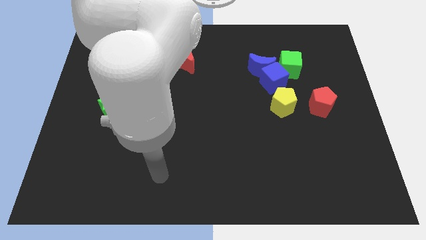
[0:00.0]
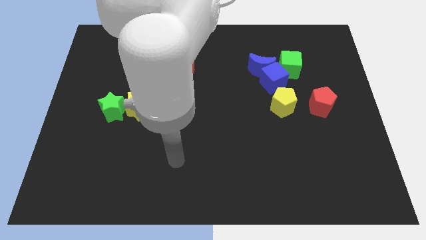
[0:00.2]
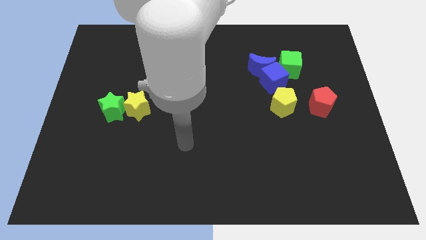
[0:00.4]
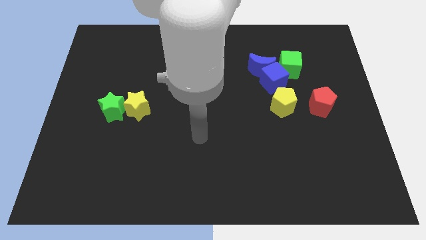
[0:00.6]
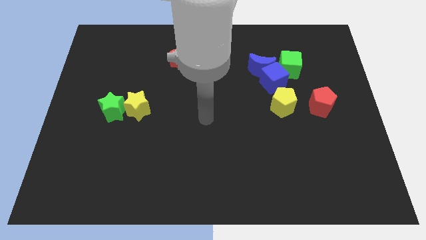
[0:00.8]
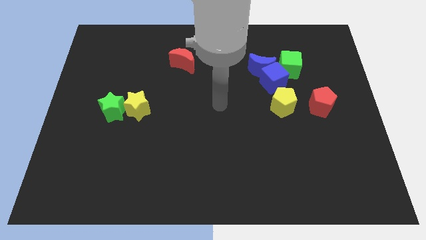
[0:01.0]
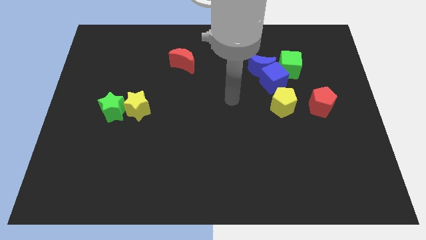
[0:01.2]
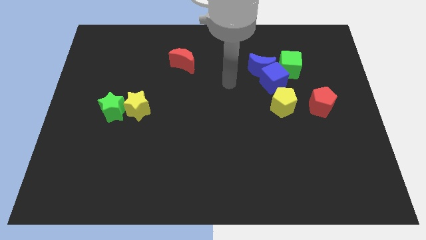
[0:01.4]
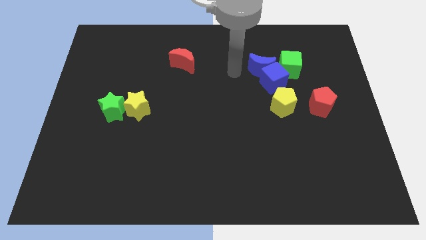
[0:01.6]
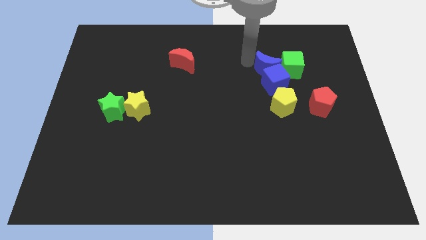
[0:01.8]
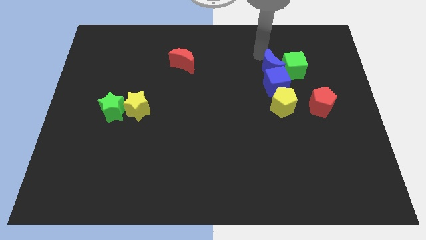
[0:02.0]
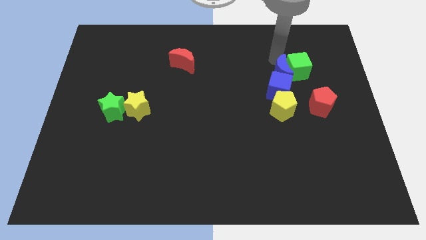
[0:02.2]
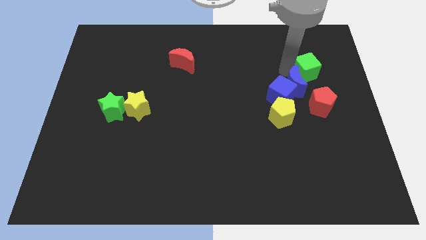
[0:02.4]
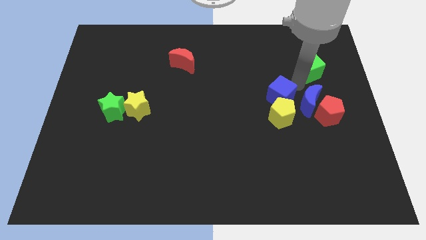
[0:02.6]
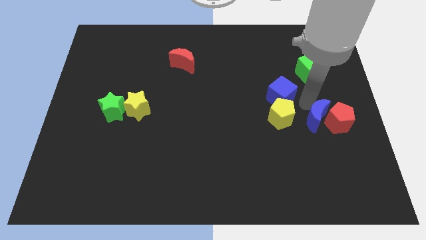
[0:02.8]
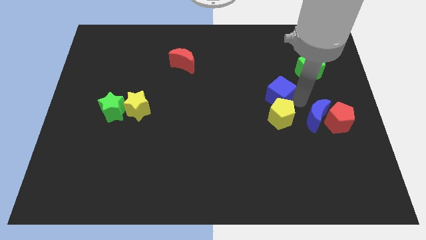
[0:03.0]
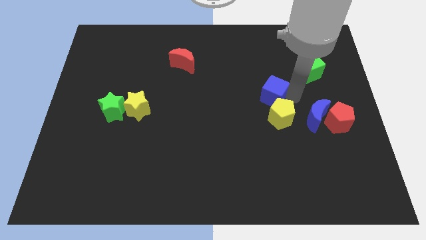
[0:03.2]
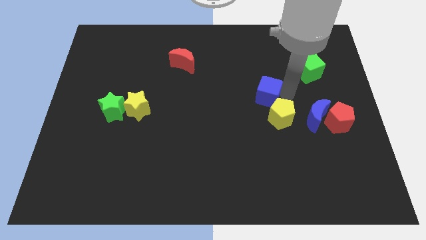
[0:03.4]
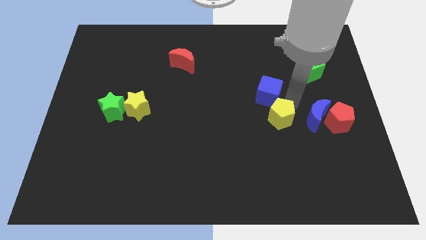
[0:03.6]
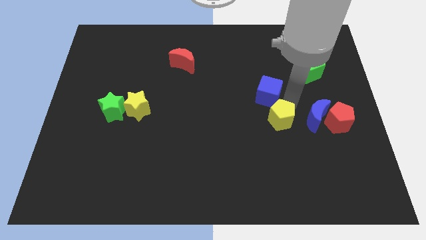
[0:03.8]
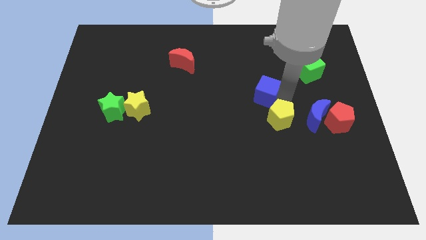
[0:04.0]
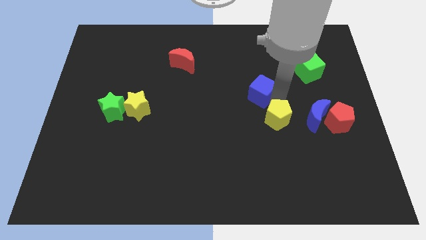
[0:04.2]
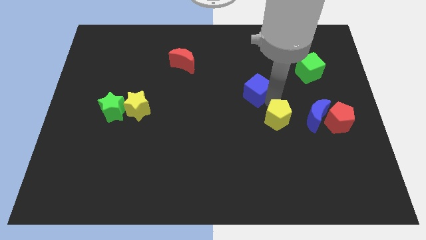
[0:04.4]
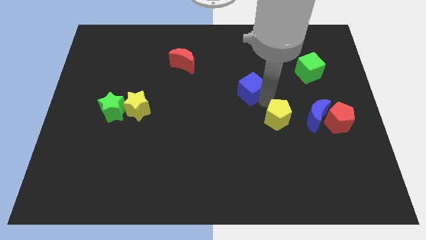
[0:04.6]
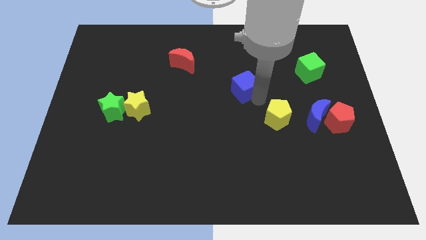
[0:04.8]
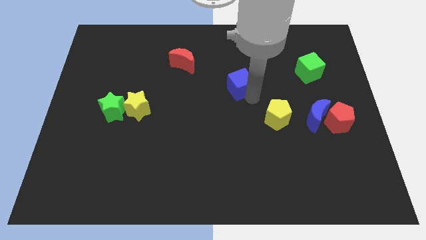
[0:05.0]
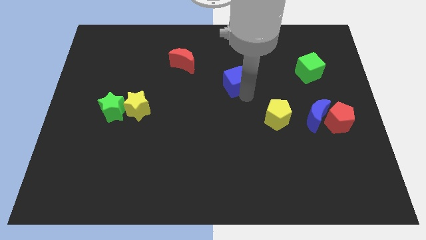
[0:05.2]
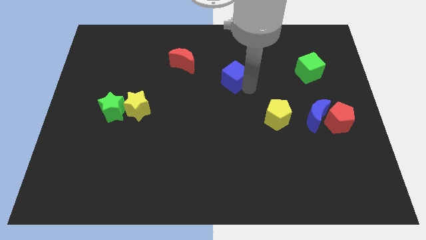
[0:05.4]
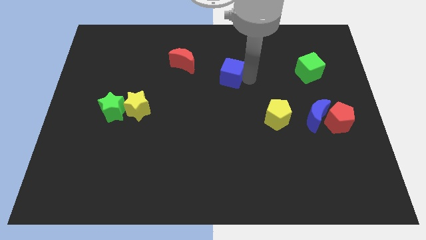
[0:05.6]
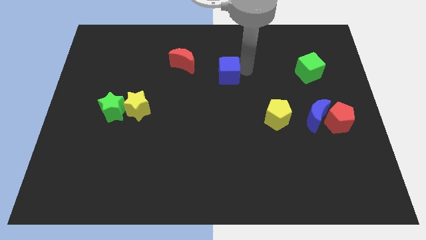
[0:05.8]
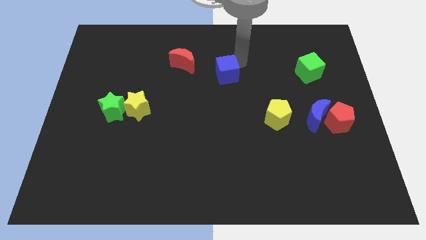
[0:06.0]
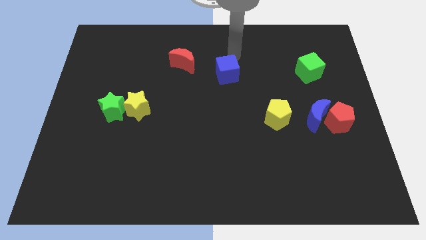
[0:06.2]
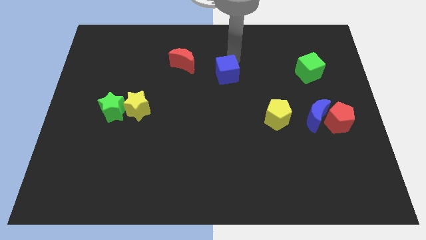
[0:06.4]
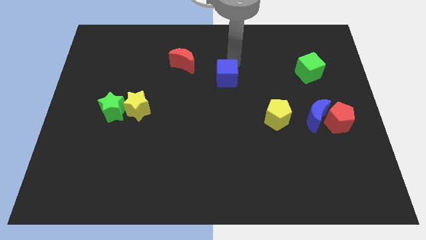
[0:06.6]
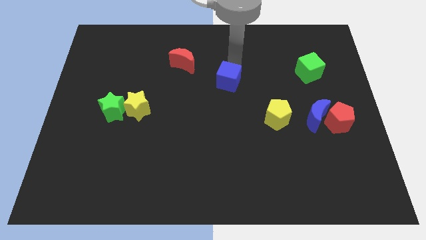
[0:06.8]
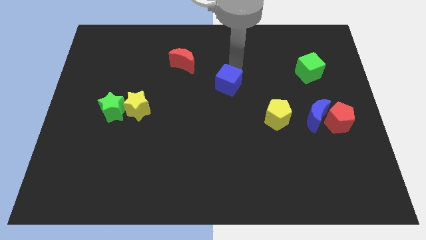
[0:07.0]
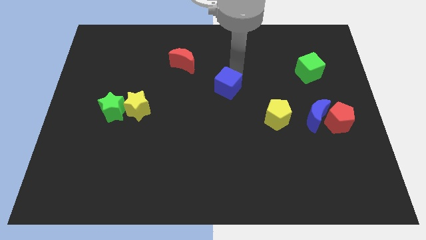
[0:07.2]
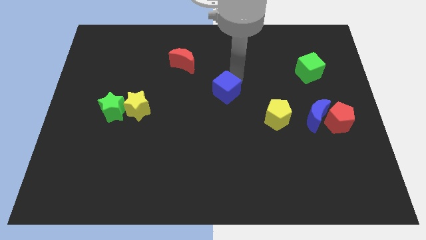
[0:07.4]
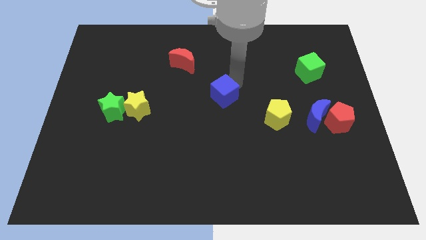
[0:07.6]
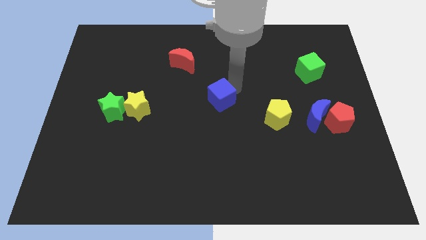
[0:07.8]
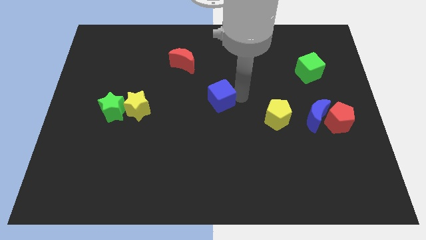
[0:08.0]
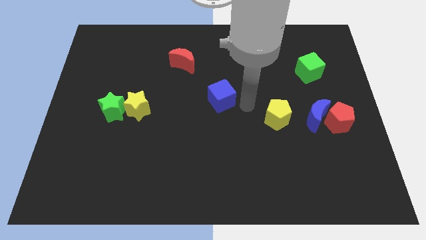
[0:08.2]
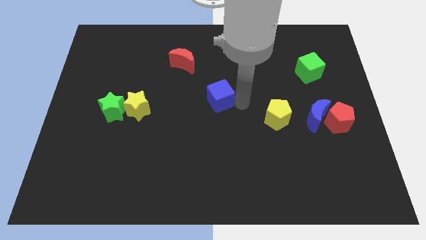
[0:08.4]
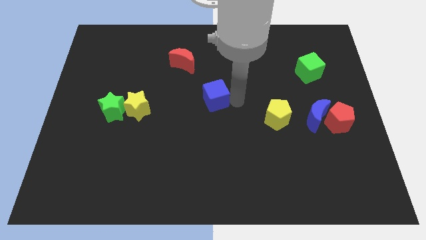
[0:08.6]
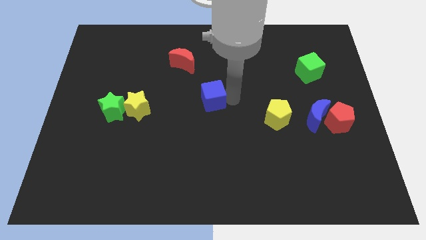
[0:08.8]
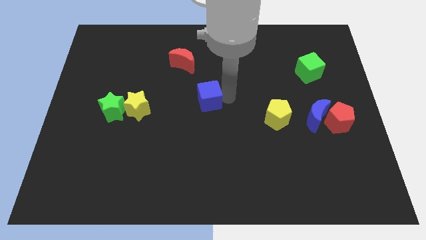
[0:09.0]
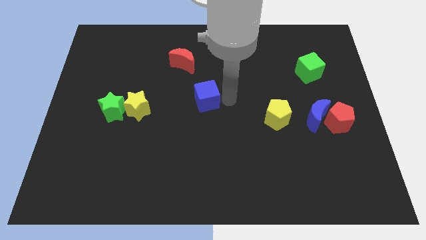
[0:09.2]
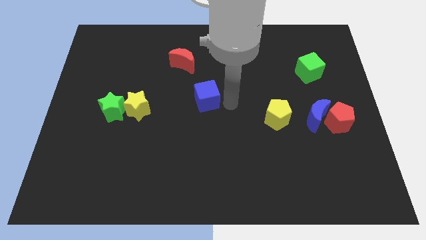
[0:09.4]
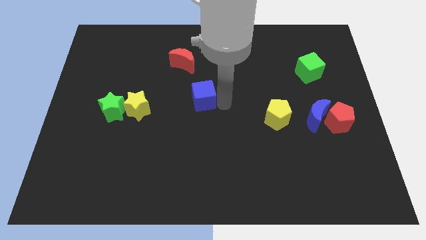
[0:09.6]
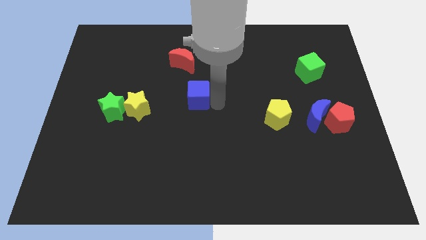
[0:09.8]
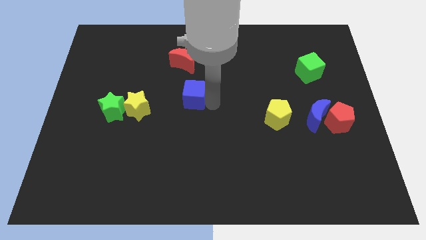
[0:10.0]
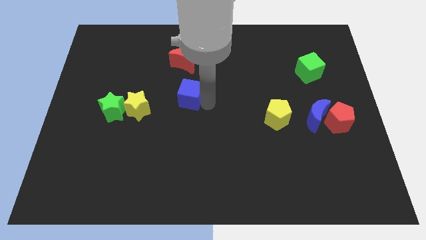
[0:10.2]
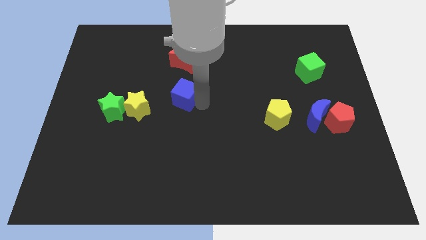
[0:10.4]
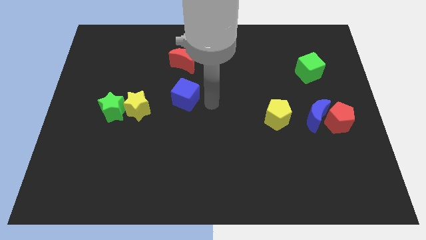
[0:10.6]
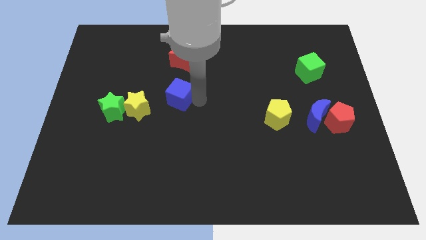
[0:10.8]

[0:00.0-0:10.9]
slide the blue cube to the top right of the yellow star

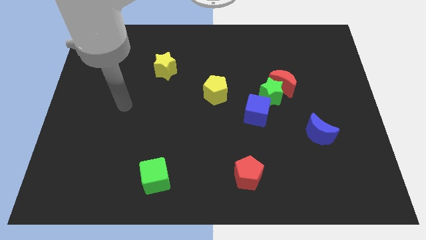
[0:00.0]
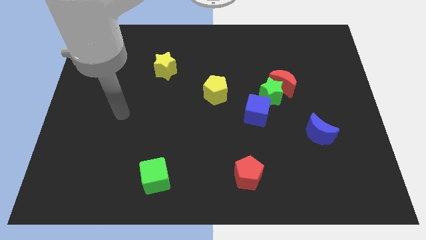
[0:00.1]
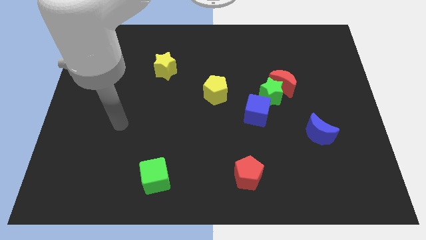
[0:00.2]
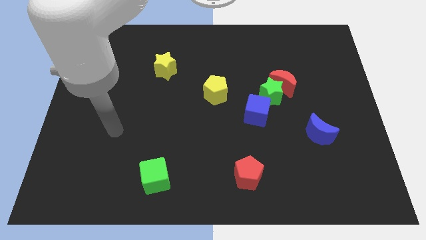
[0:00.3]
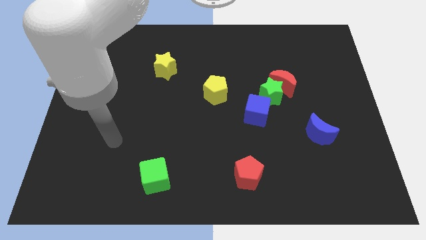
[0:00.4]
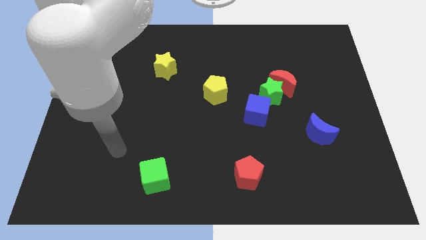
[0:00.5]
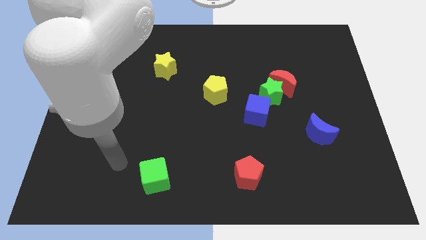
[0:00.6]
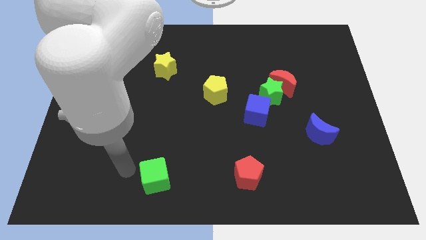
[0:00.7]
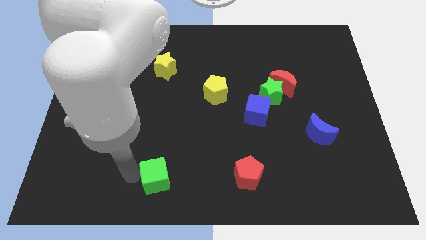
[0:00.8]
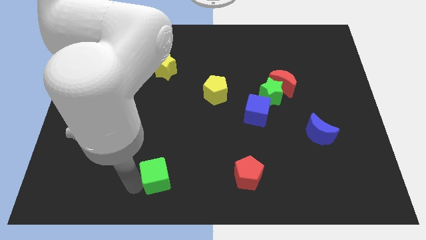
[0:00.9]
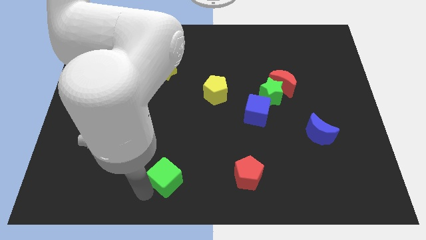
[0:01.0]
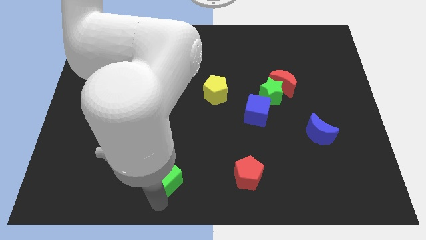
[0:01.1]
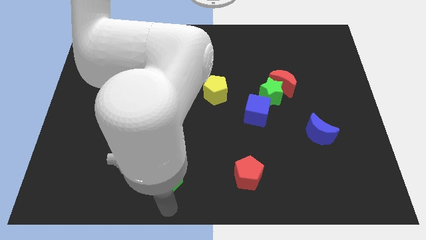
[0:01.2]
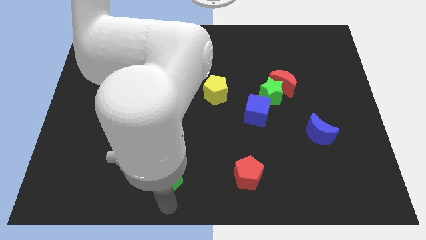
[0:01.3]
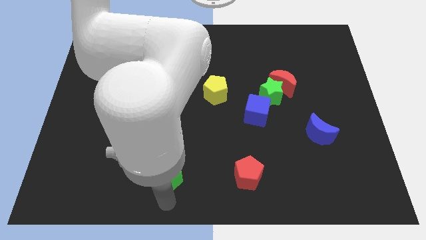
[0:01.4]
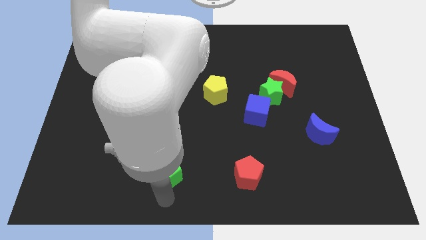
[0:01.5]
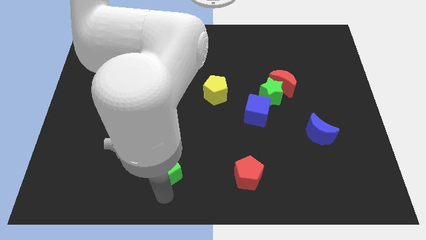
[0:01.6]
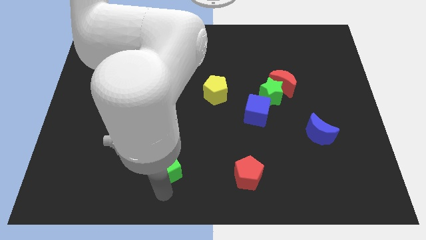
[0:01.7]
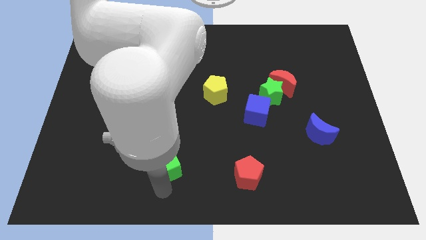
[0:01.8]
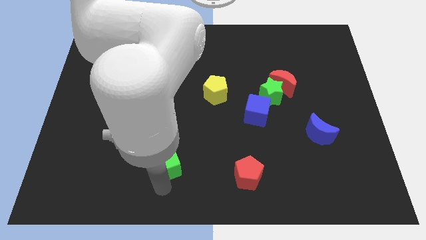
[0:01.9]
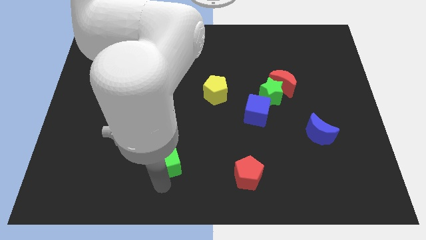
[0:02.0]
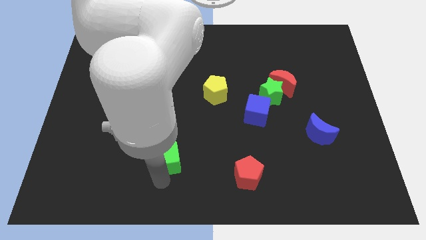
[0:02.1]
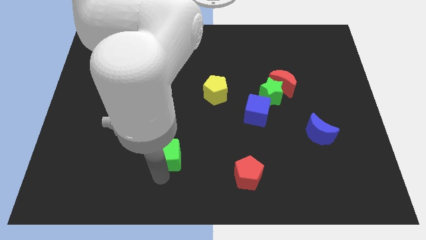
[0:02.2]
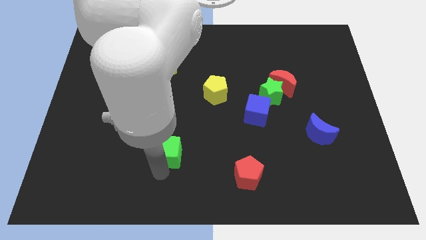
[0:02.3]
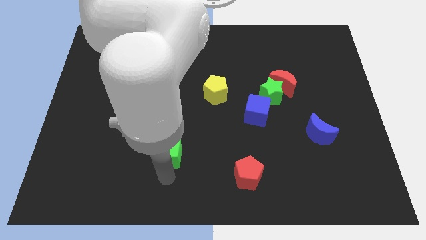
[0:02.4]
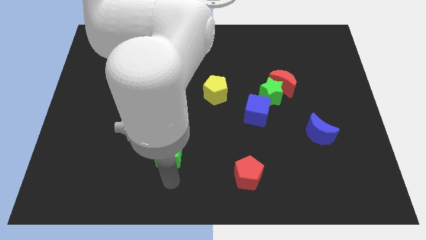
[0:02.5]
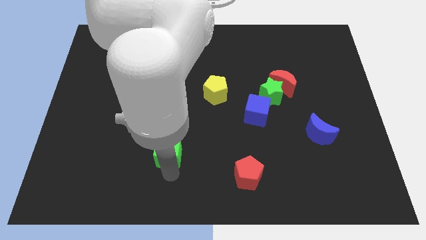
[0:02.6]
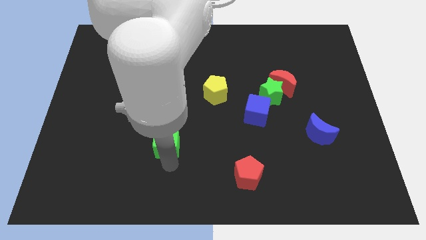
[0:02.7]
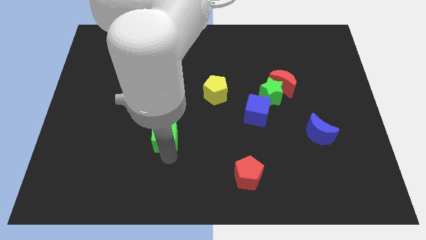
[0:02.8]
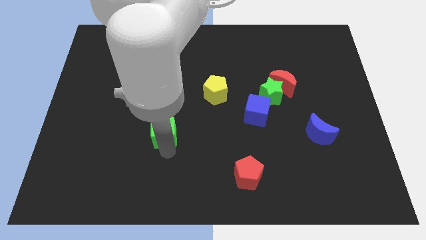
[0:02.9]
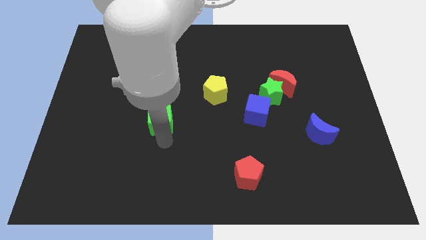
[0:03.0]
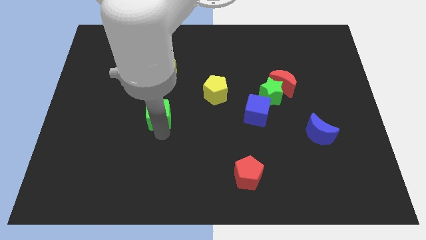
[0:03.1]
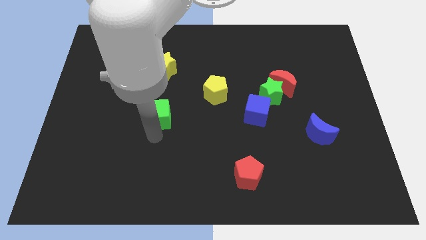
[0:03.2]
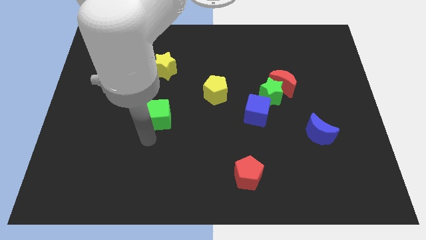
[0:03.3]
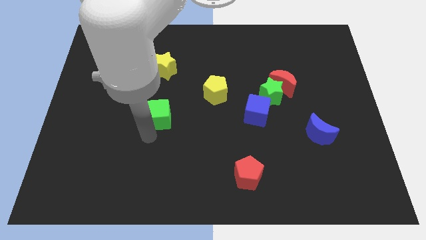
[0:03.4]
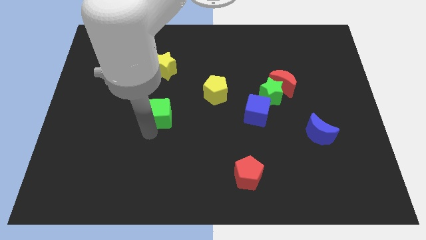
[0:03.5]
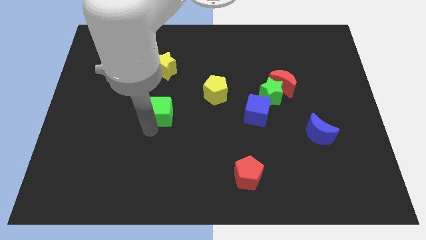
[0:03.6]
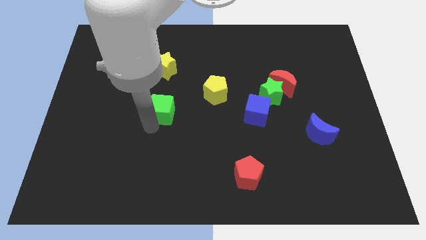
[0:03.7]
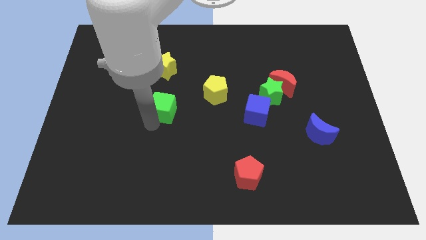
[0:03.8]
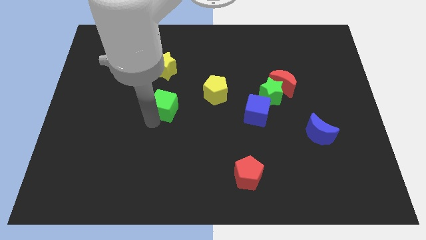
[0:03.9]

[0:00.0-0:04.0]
put the green cube left of the yellow pentagon
